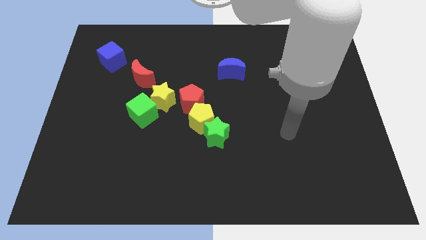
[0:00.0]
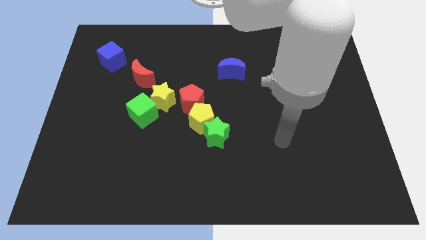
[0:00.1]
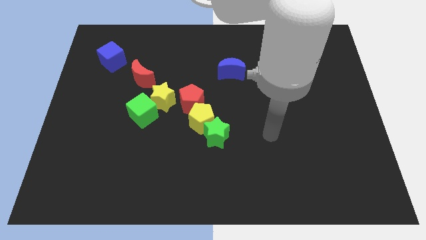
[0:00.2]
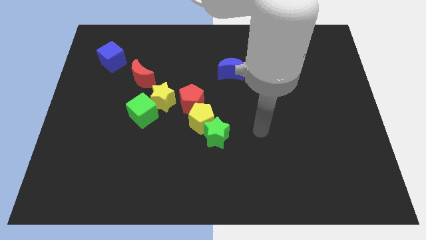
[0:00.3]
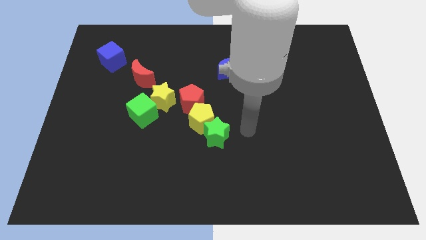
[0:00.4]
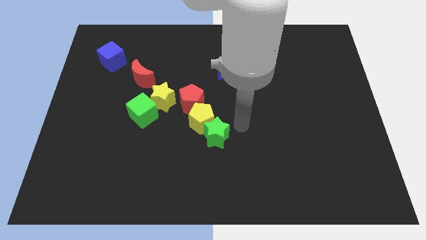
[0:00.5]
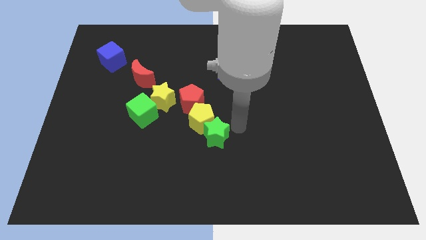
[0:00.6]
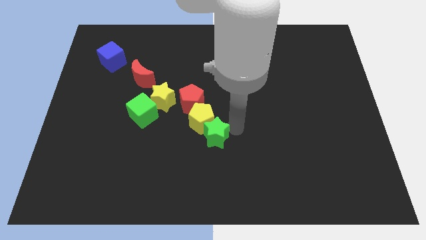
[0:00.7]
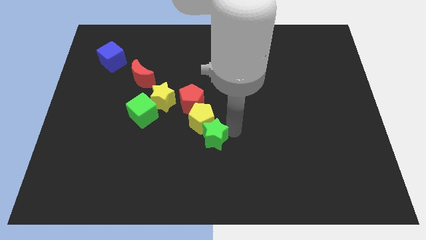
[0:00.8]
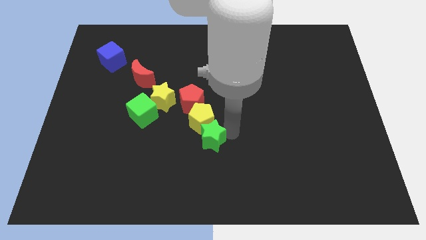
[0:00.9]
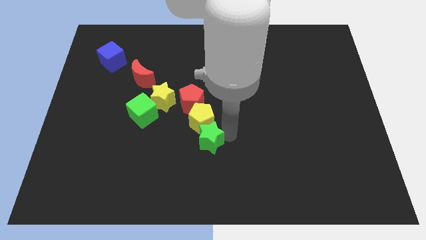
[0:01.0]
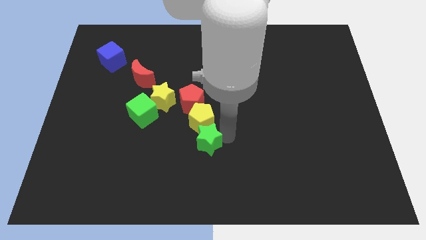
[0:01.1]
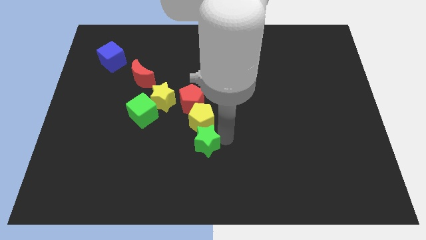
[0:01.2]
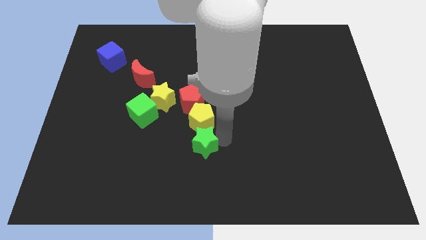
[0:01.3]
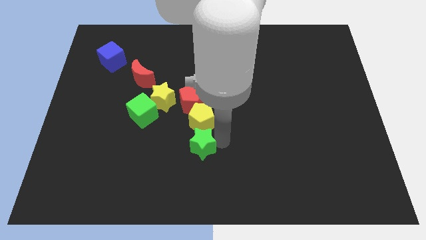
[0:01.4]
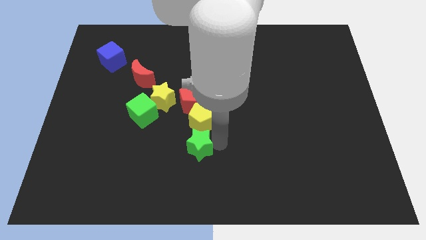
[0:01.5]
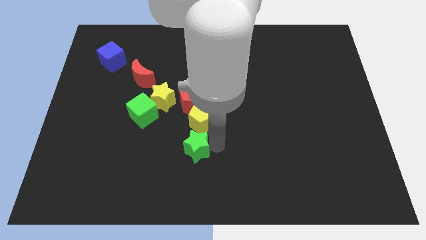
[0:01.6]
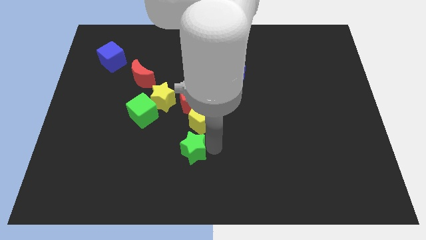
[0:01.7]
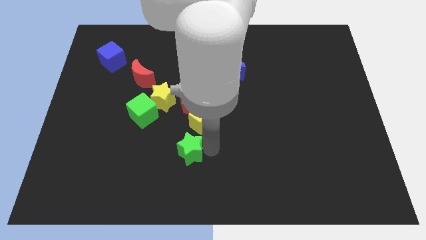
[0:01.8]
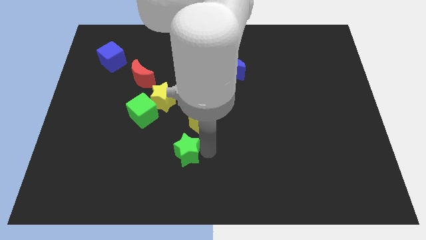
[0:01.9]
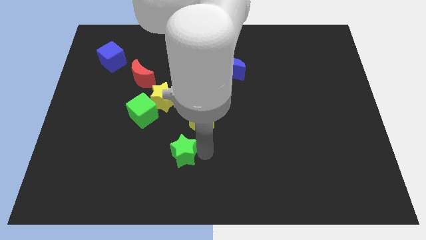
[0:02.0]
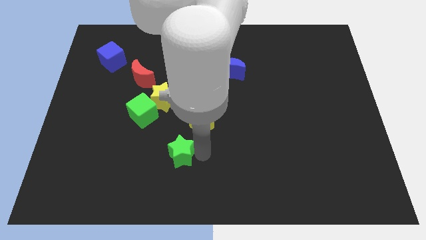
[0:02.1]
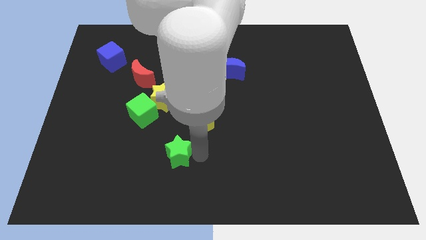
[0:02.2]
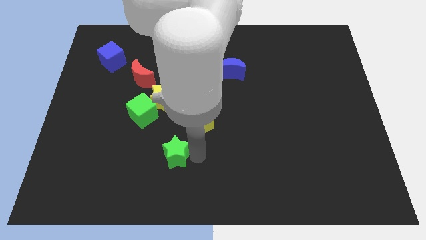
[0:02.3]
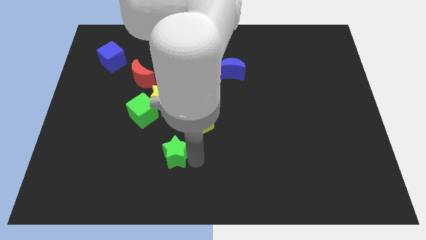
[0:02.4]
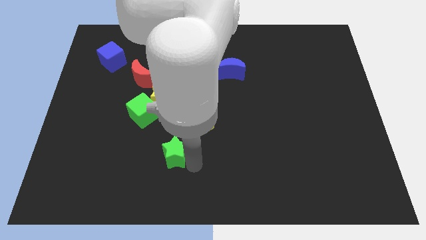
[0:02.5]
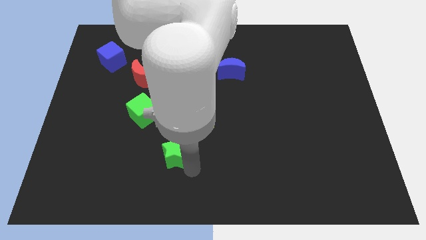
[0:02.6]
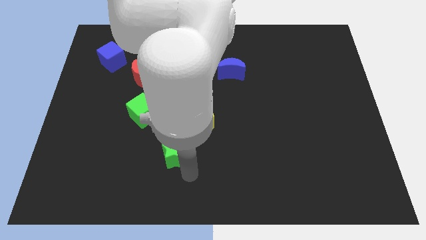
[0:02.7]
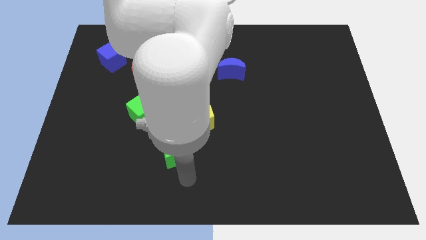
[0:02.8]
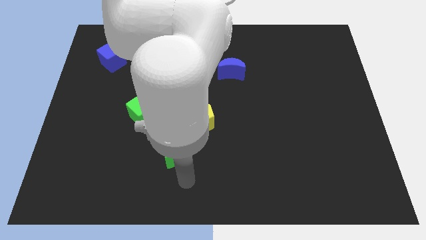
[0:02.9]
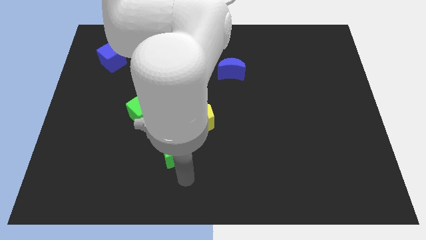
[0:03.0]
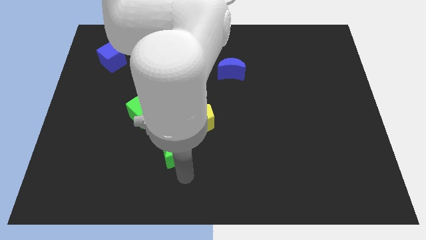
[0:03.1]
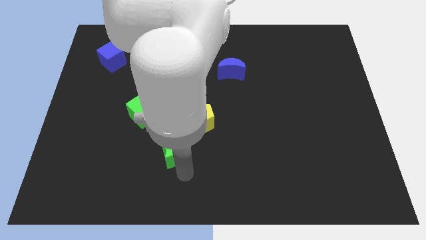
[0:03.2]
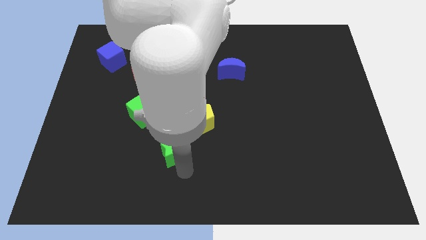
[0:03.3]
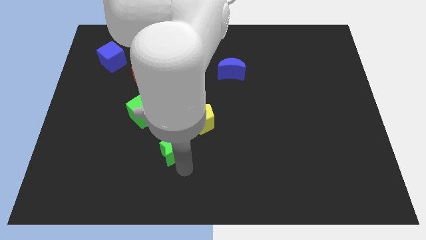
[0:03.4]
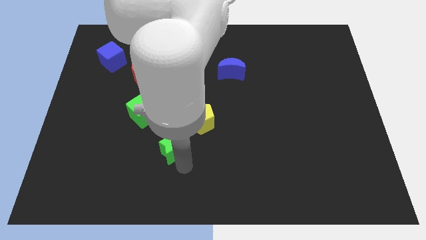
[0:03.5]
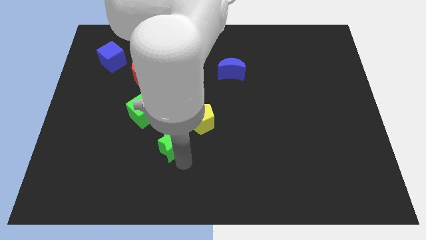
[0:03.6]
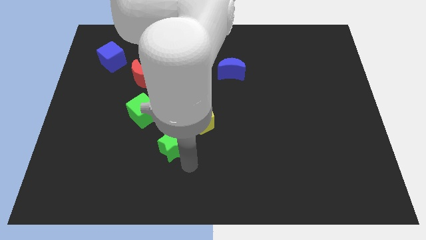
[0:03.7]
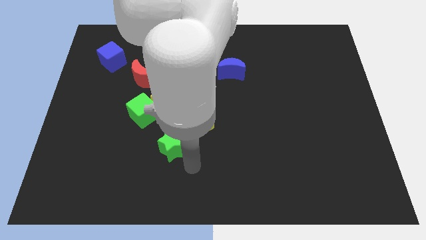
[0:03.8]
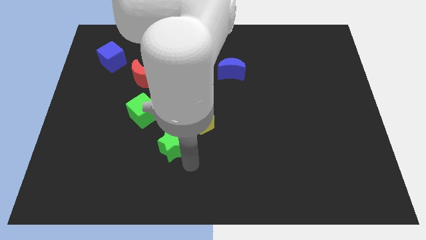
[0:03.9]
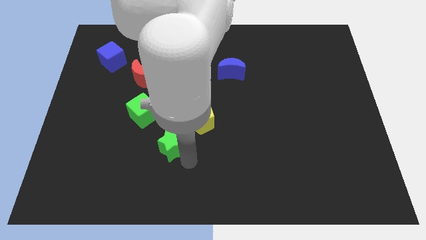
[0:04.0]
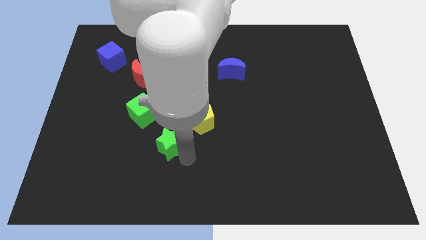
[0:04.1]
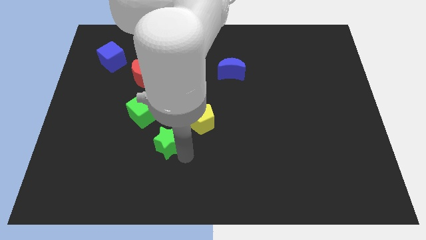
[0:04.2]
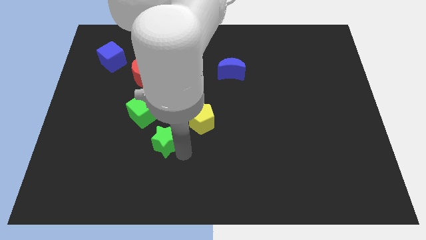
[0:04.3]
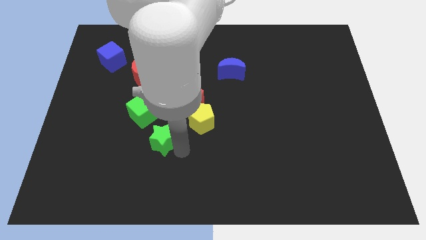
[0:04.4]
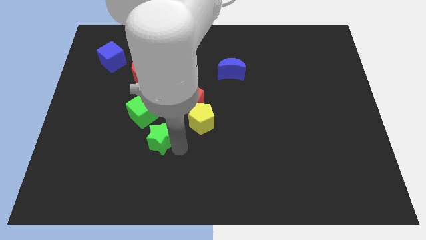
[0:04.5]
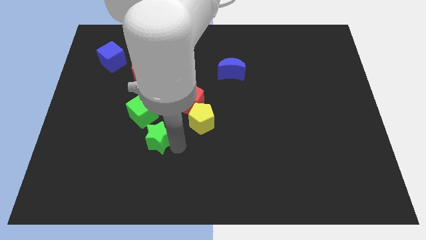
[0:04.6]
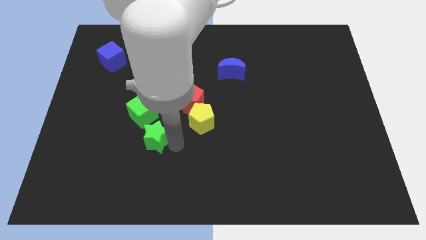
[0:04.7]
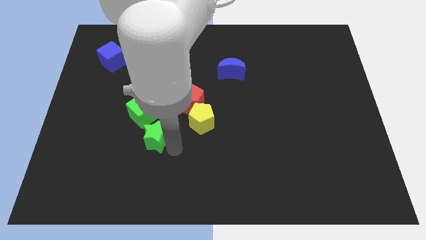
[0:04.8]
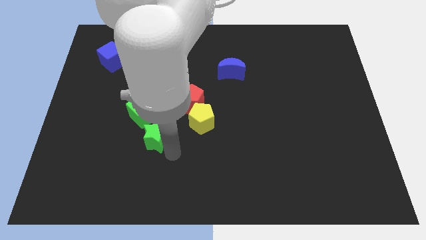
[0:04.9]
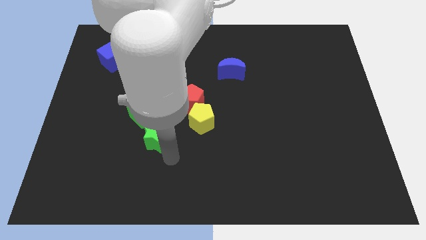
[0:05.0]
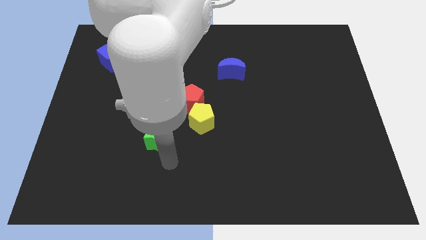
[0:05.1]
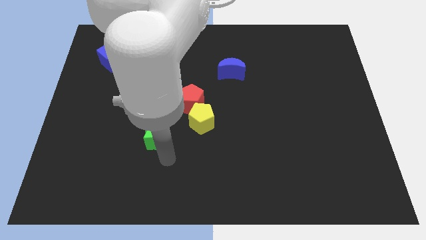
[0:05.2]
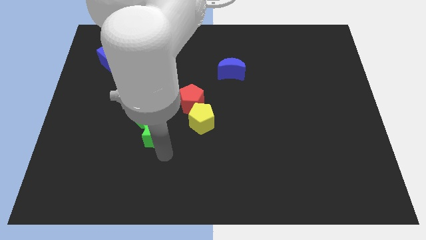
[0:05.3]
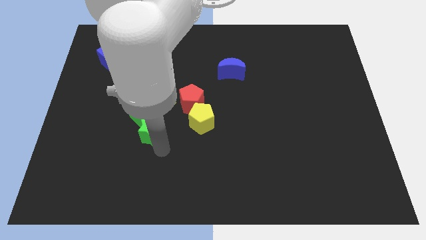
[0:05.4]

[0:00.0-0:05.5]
push the green star towards the green cube

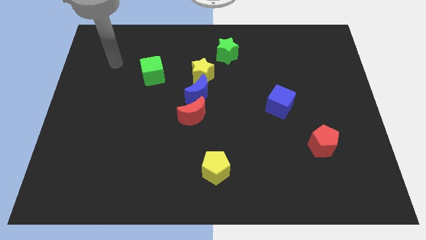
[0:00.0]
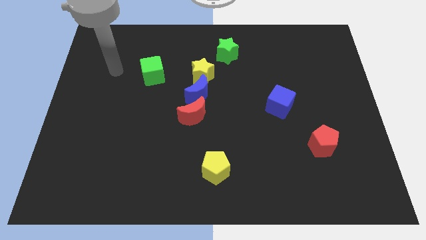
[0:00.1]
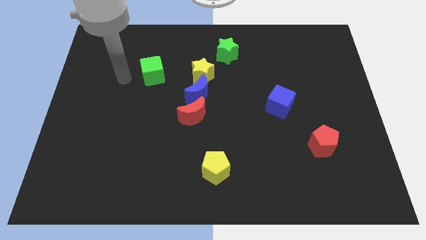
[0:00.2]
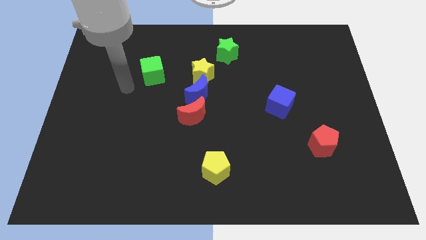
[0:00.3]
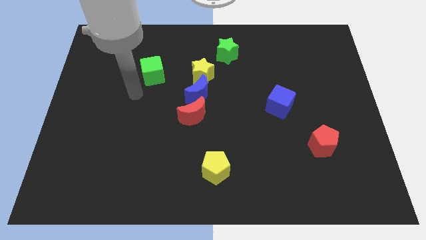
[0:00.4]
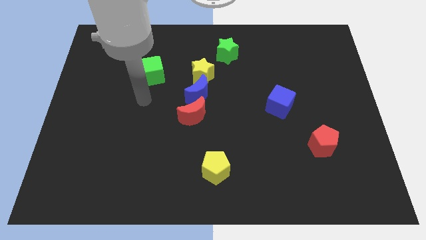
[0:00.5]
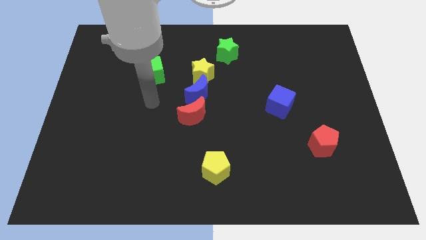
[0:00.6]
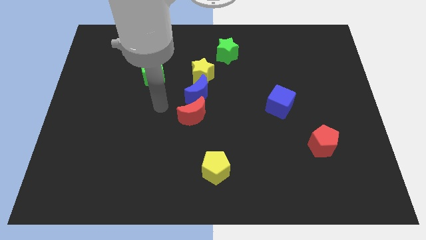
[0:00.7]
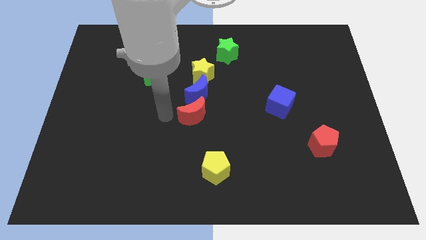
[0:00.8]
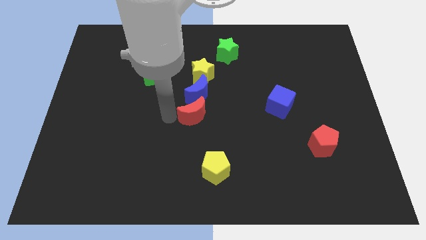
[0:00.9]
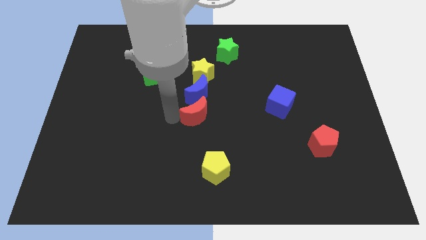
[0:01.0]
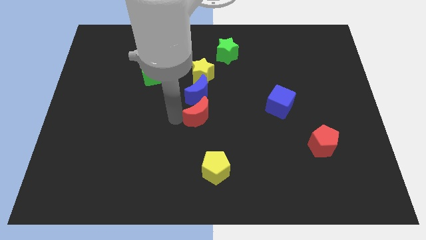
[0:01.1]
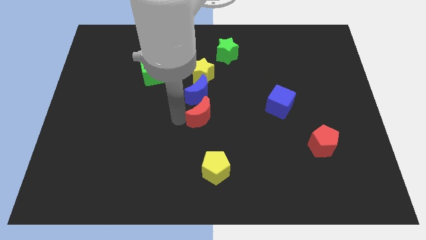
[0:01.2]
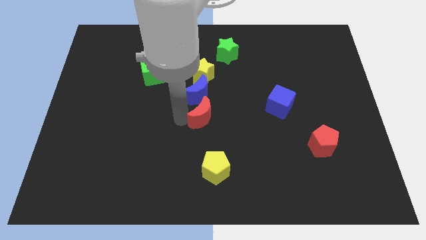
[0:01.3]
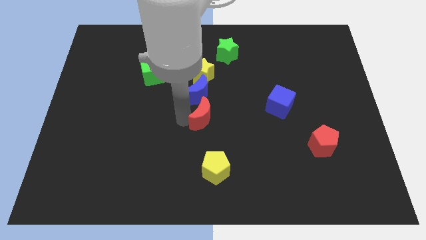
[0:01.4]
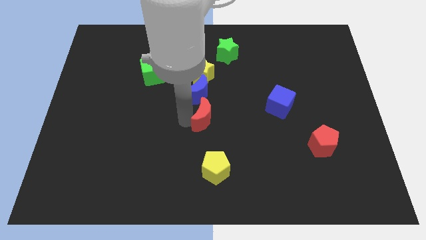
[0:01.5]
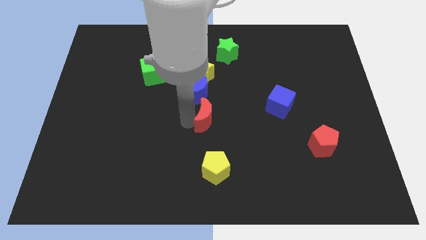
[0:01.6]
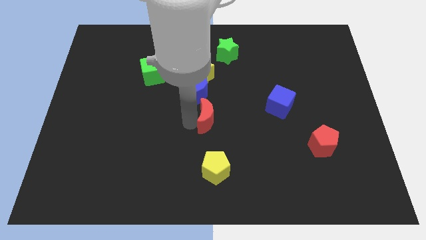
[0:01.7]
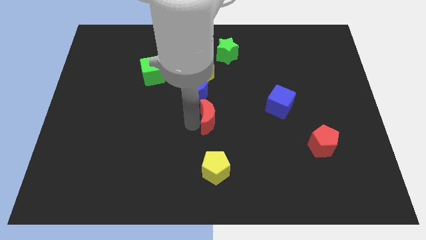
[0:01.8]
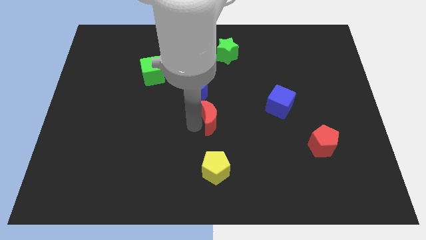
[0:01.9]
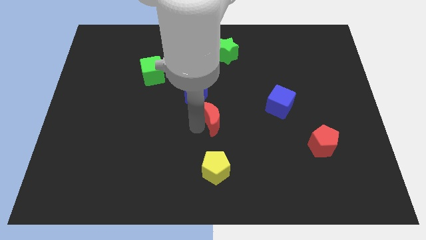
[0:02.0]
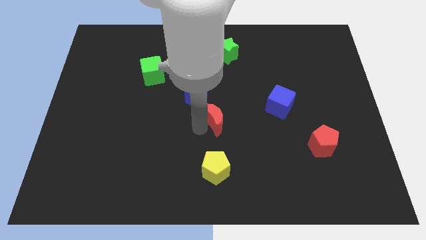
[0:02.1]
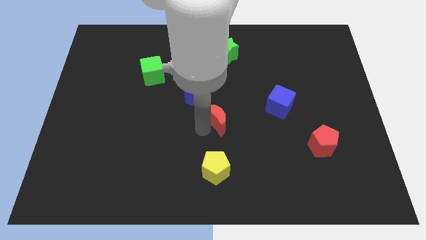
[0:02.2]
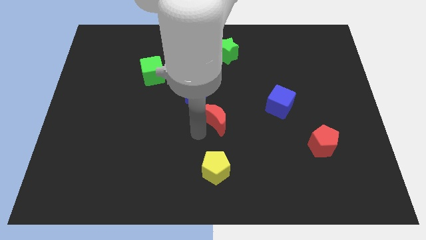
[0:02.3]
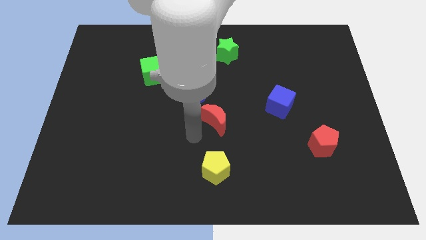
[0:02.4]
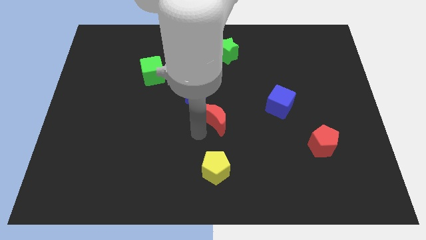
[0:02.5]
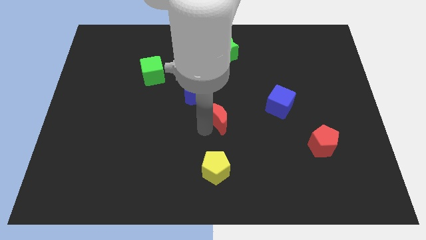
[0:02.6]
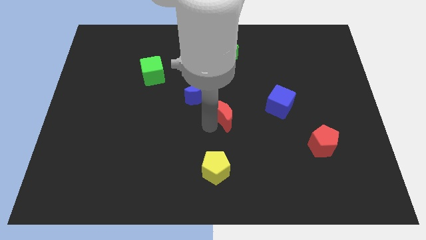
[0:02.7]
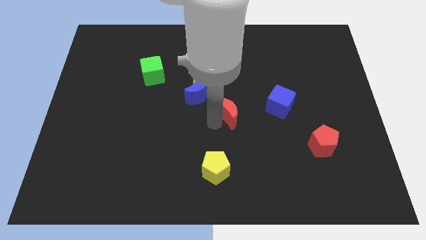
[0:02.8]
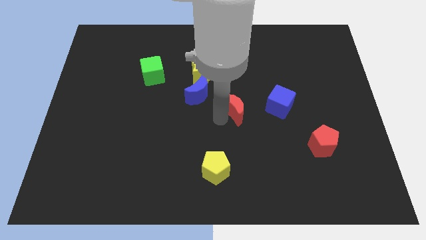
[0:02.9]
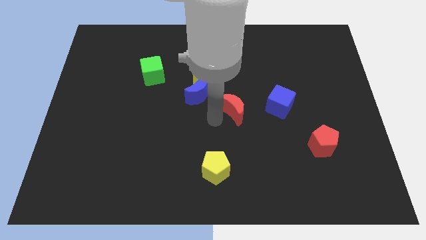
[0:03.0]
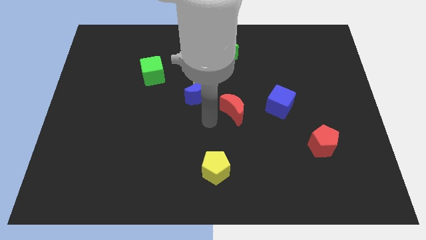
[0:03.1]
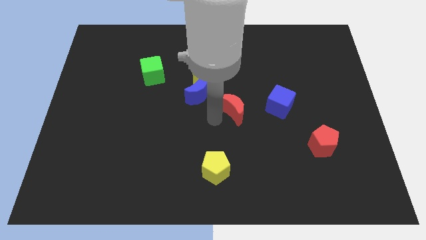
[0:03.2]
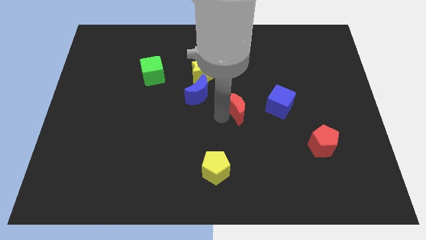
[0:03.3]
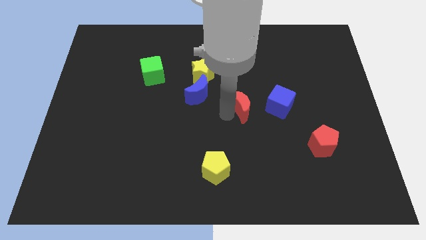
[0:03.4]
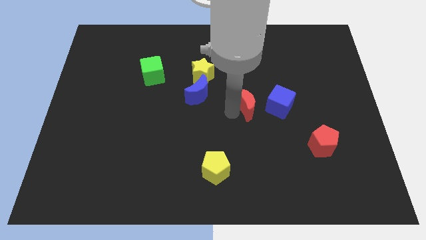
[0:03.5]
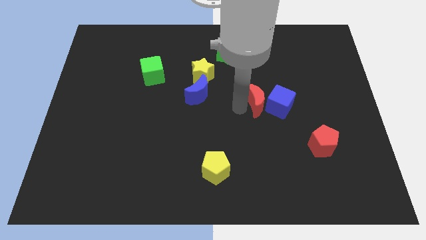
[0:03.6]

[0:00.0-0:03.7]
put the red moon next to the blue cube
